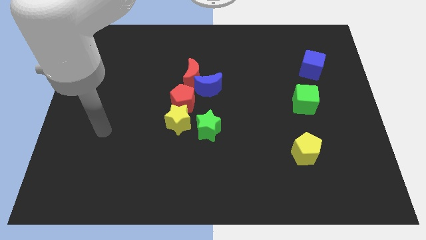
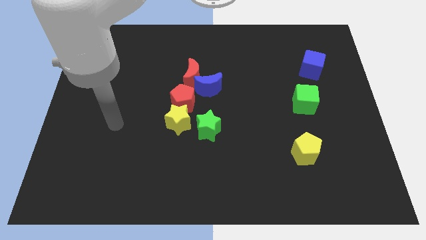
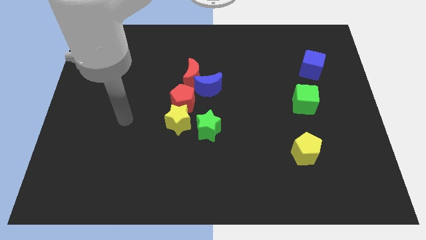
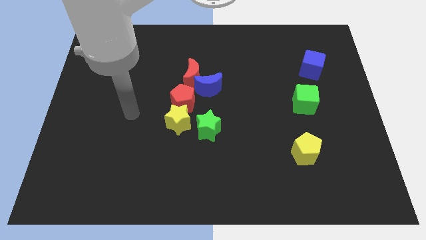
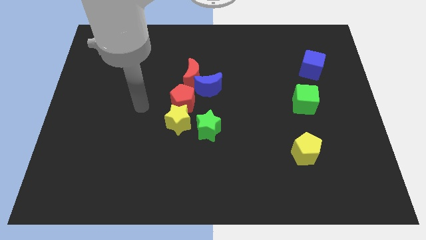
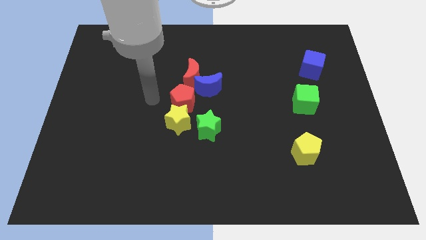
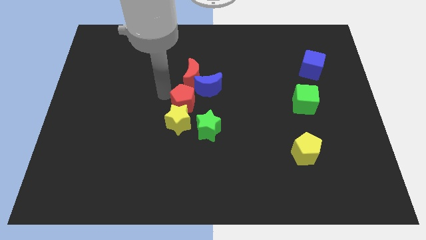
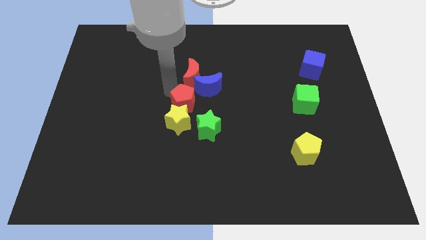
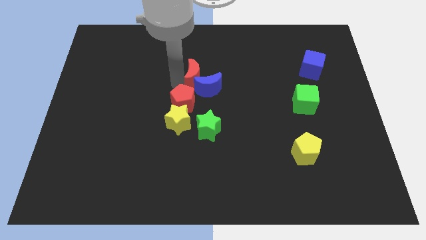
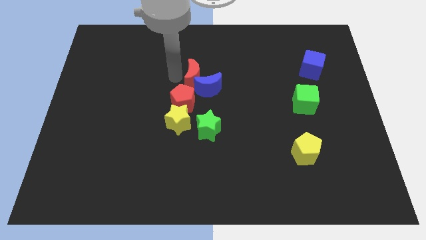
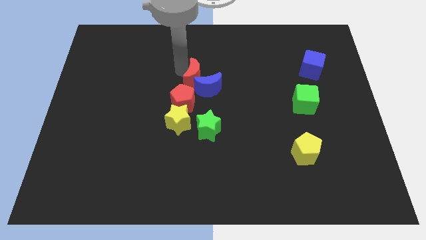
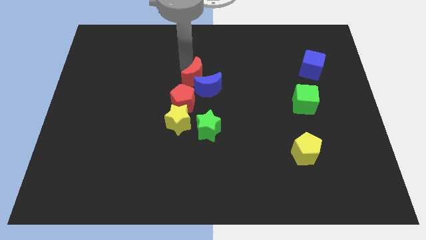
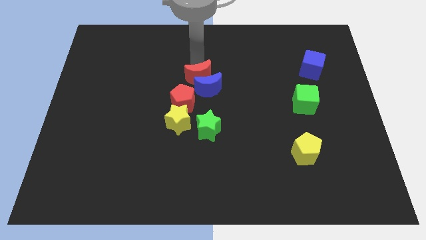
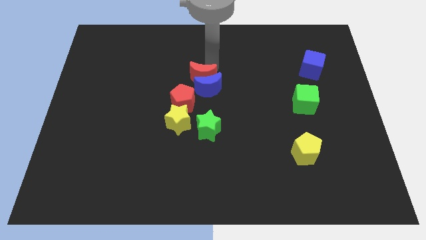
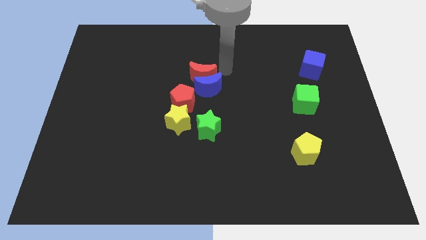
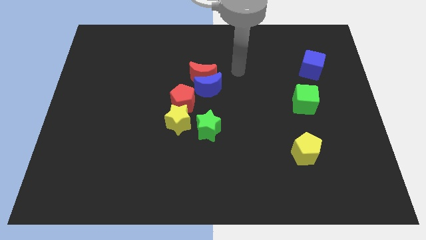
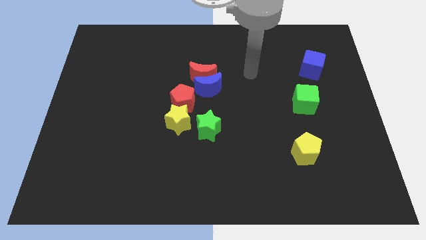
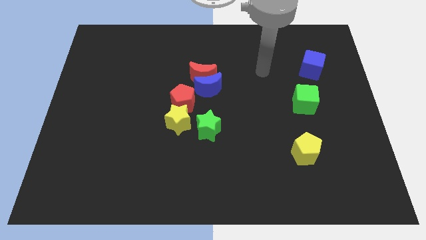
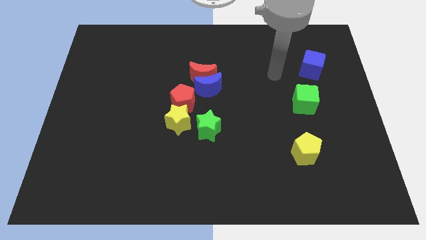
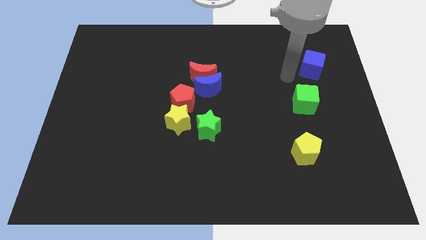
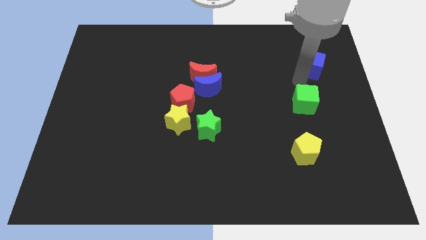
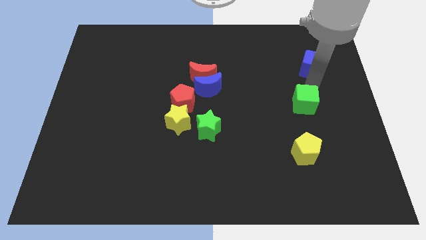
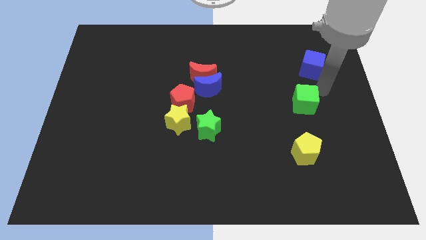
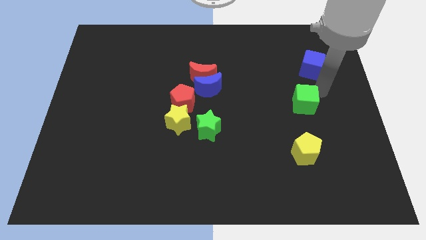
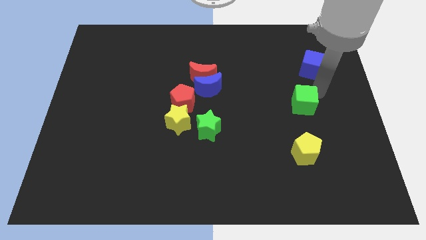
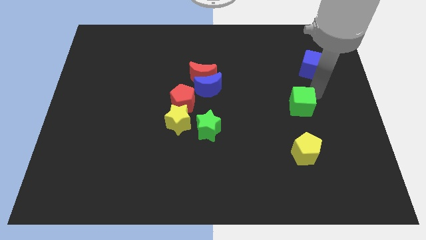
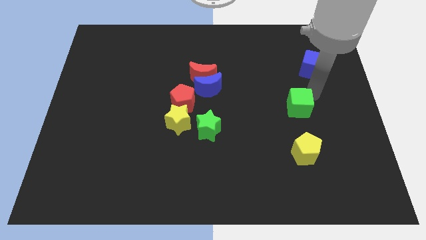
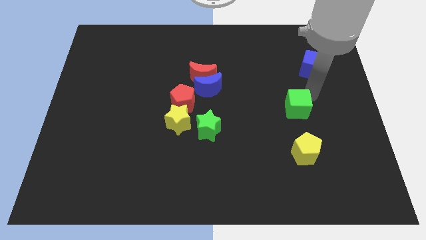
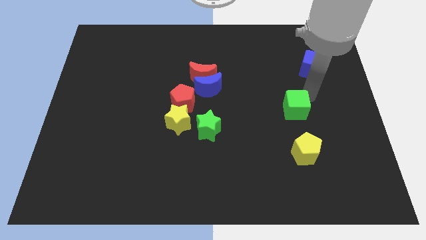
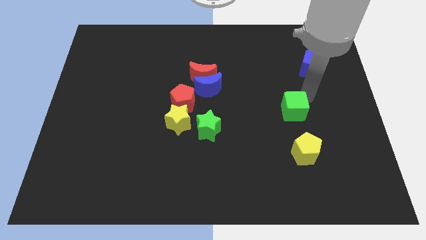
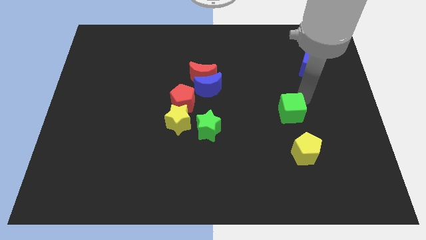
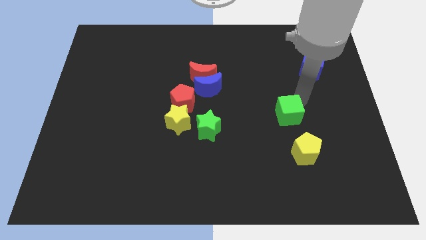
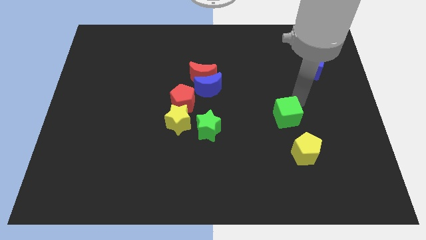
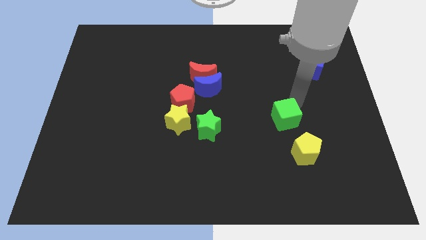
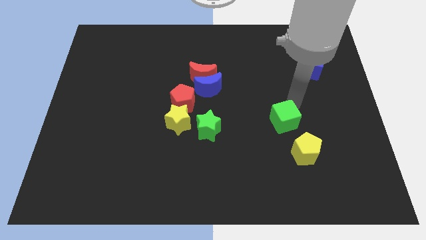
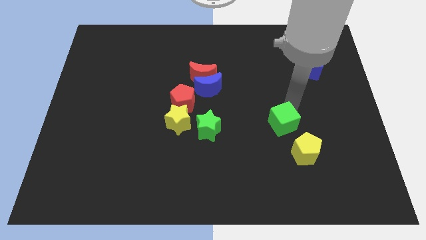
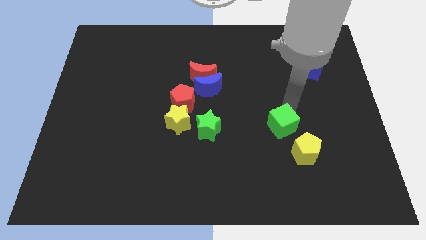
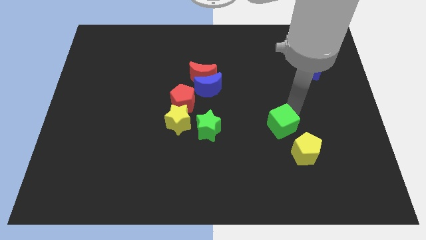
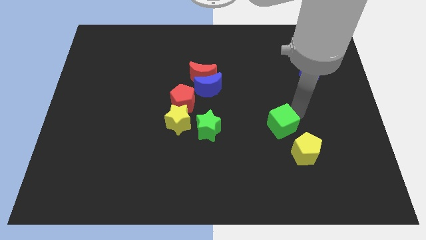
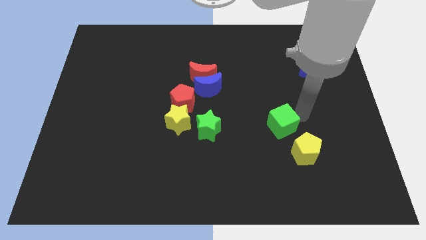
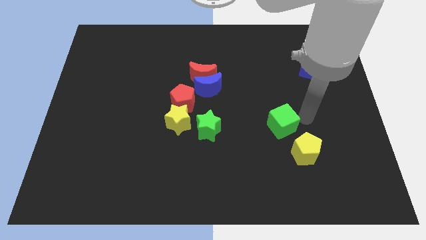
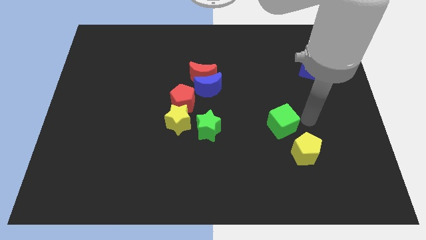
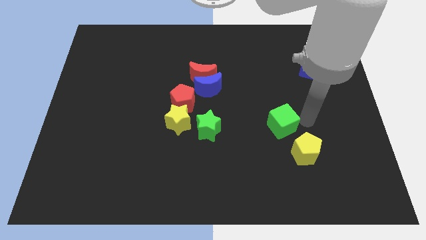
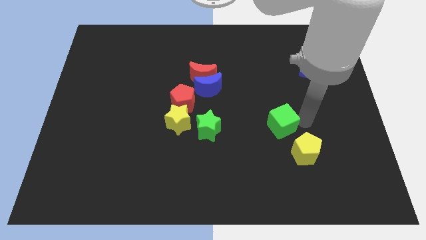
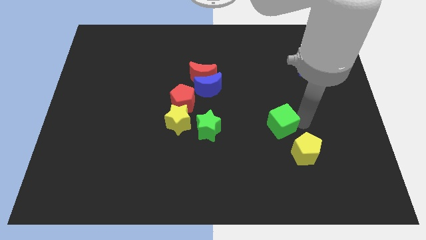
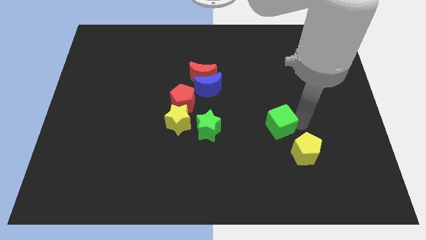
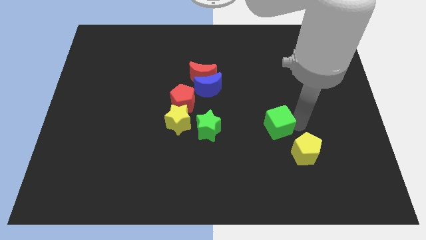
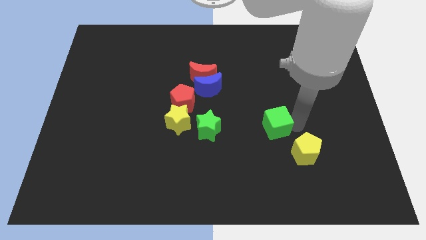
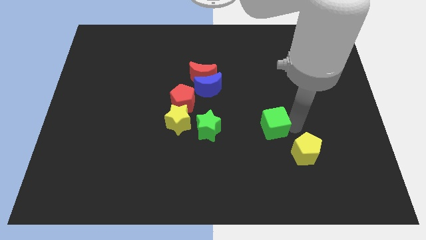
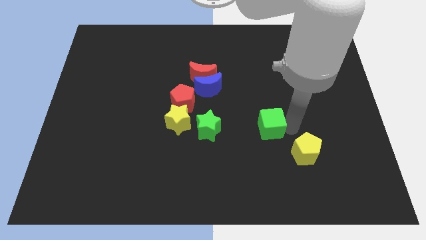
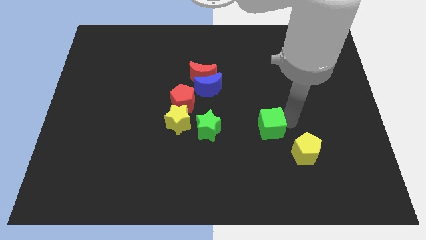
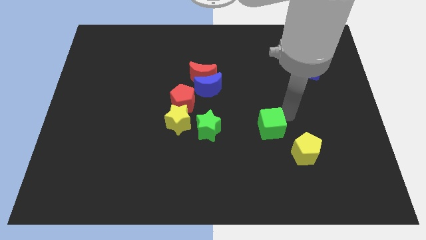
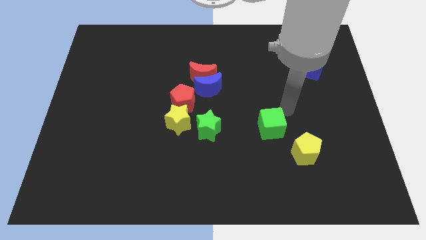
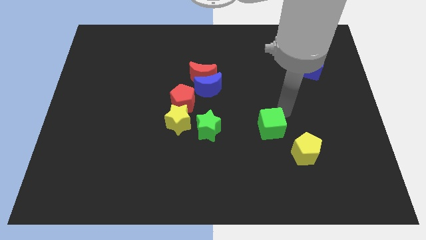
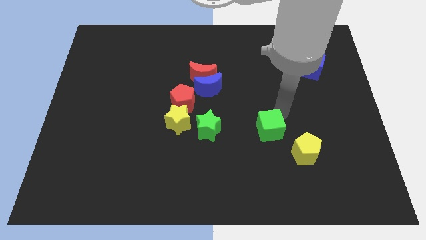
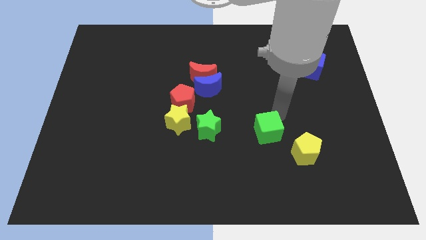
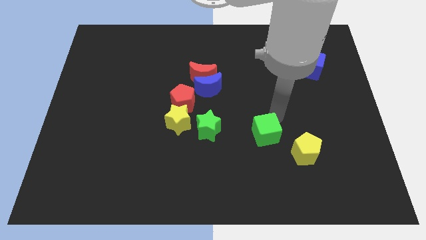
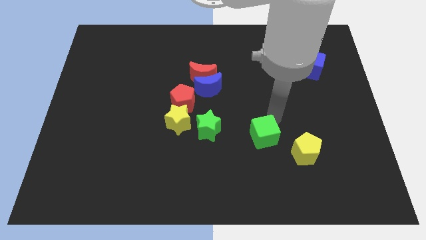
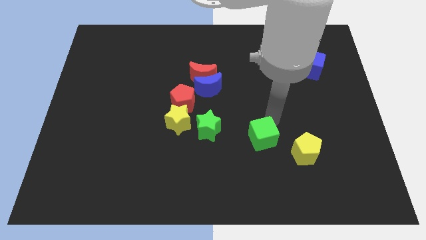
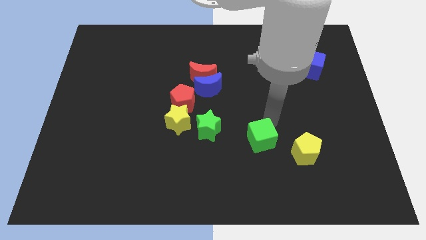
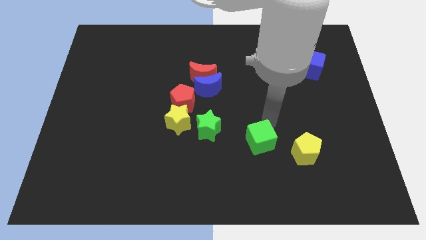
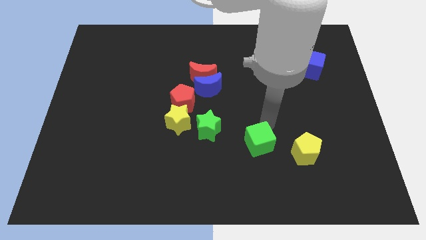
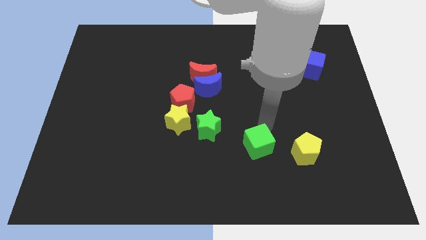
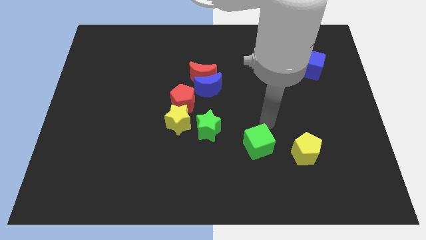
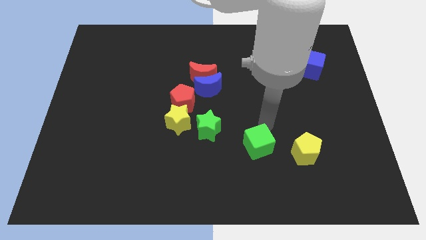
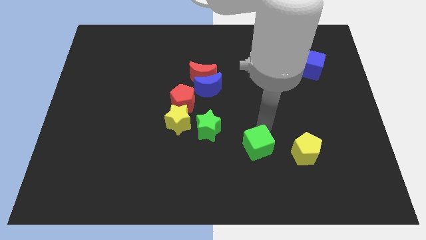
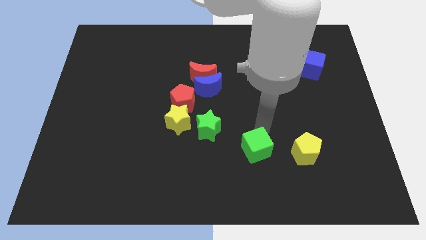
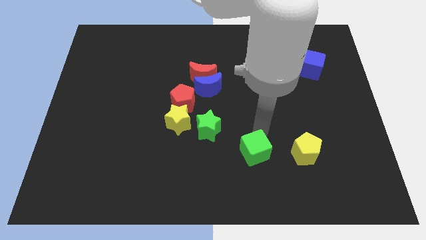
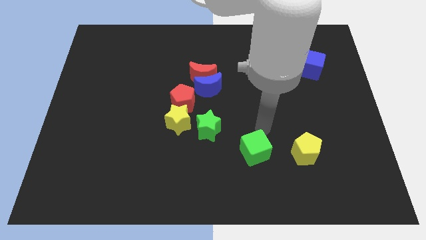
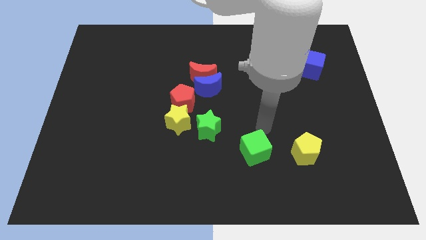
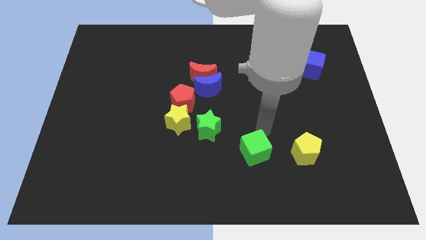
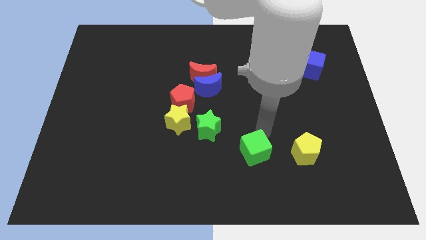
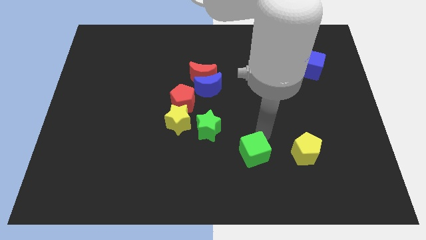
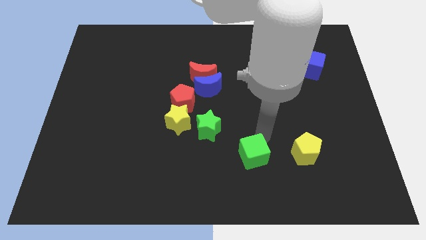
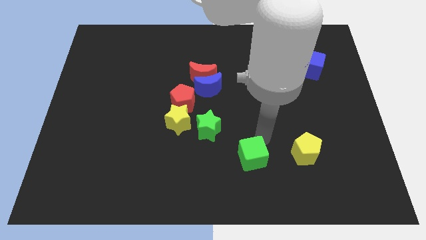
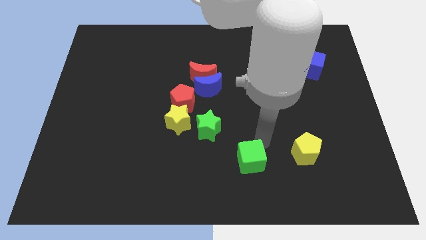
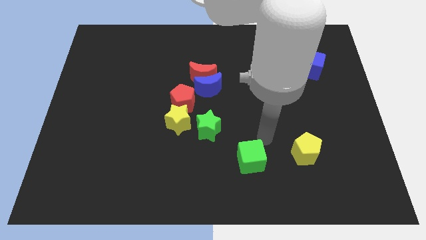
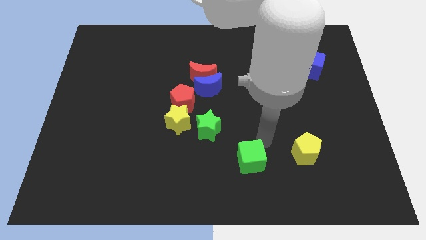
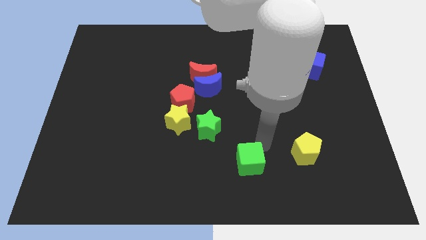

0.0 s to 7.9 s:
push the green cube to the bottom
